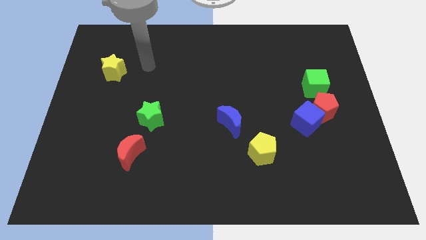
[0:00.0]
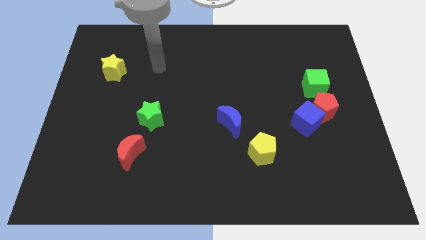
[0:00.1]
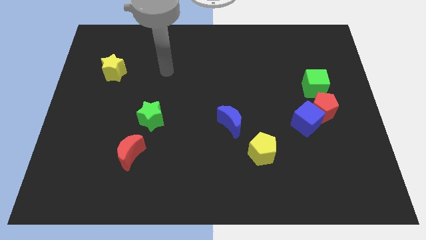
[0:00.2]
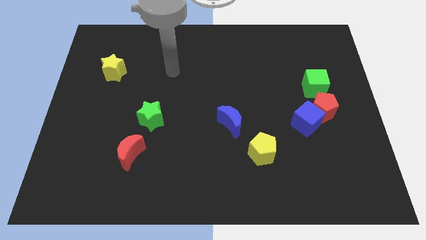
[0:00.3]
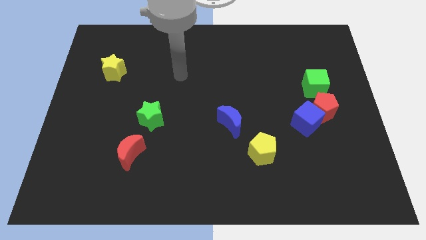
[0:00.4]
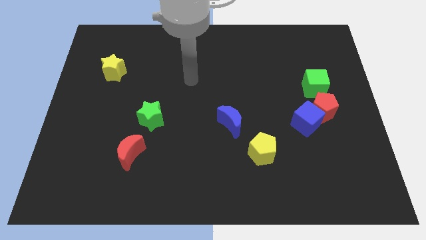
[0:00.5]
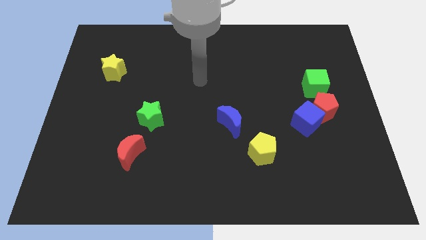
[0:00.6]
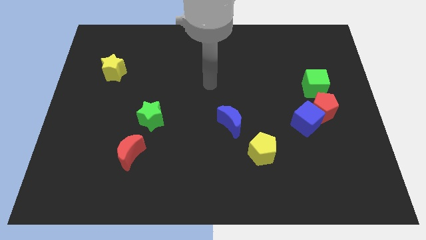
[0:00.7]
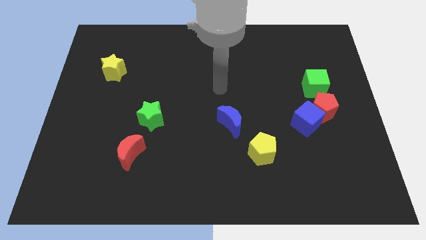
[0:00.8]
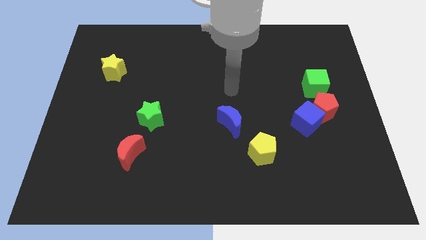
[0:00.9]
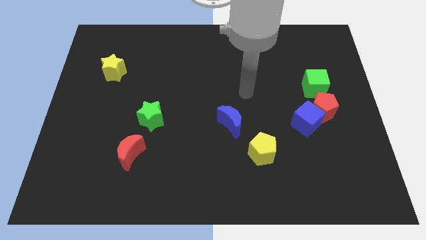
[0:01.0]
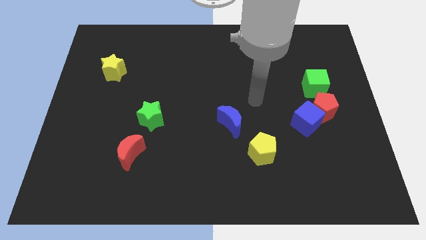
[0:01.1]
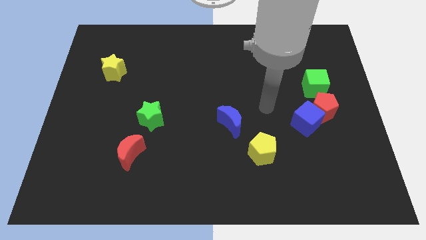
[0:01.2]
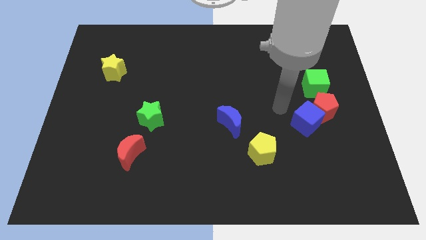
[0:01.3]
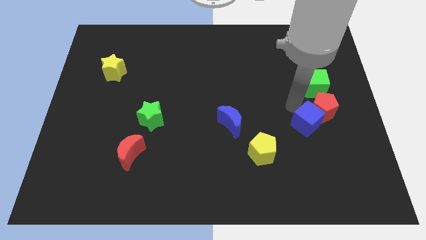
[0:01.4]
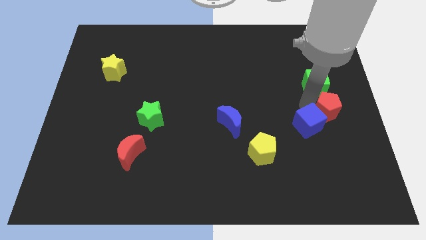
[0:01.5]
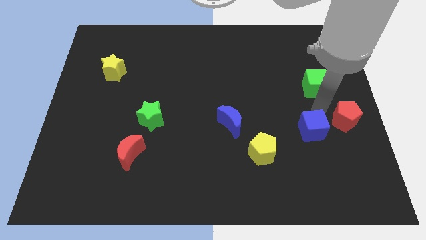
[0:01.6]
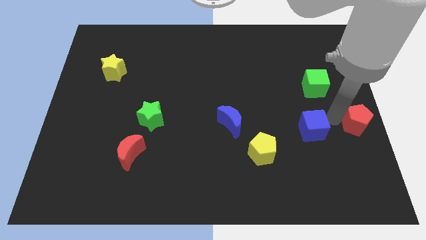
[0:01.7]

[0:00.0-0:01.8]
separate the blue cube from the red pentagon

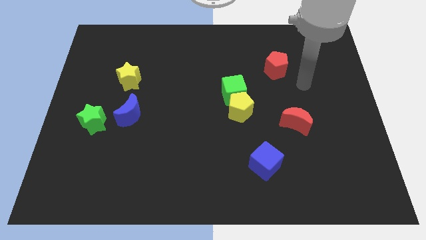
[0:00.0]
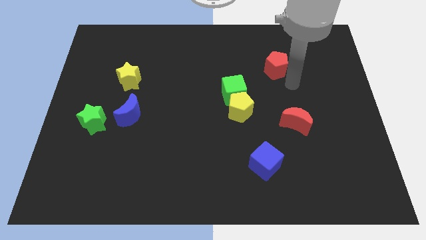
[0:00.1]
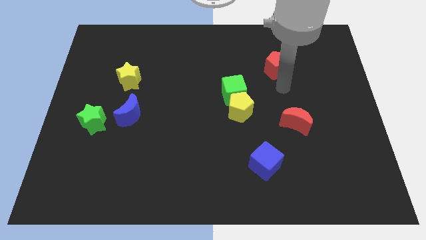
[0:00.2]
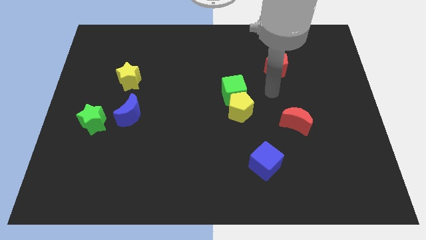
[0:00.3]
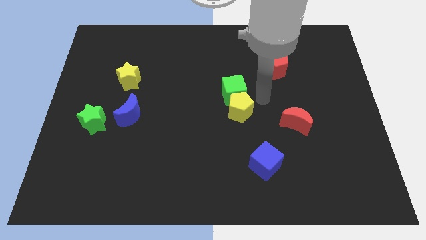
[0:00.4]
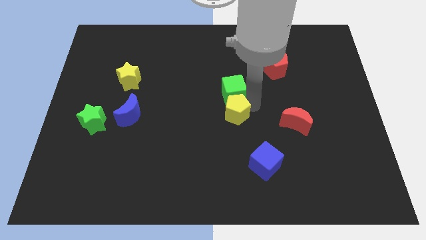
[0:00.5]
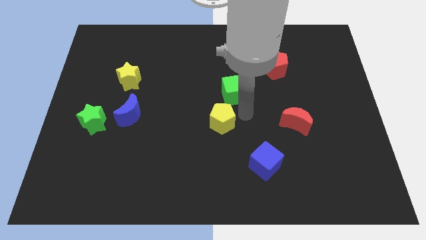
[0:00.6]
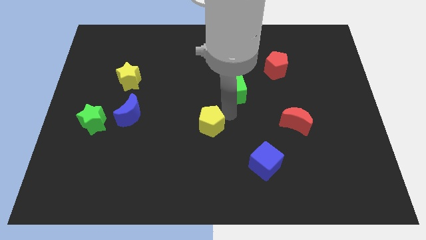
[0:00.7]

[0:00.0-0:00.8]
move the green cube away from the yellow pentagon

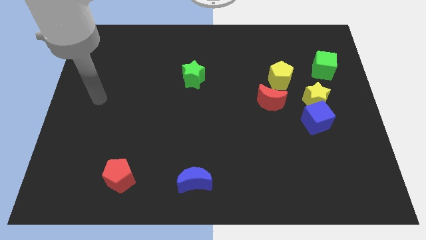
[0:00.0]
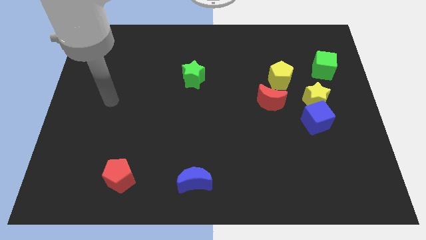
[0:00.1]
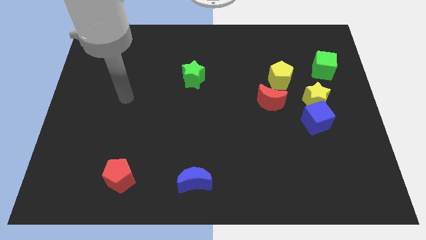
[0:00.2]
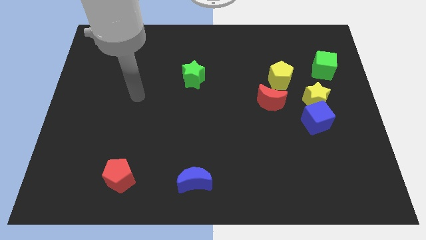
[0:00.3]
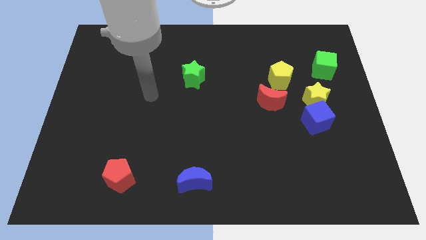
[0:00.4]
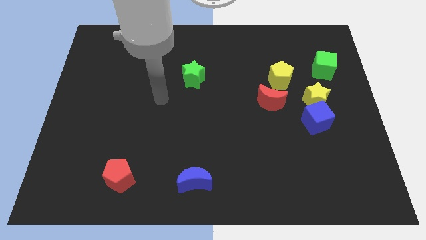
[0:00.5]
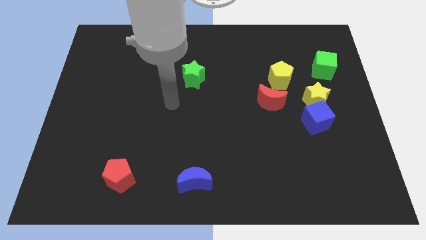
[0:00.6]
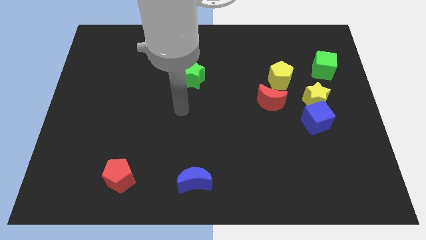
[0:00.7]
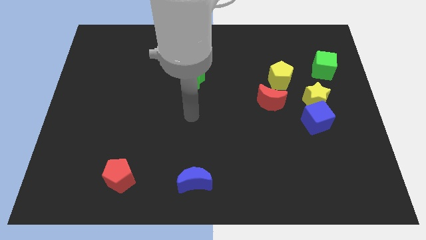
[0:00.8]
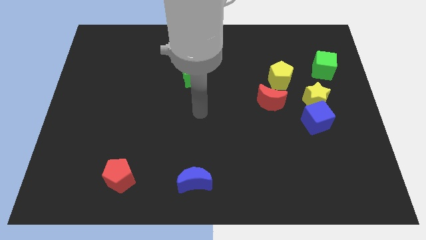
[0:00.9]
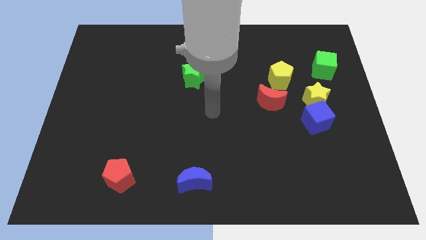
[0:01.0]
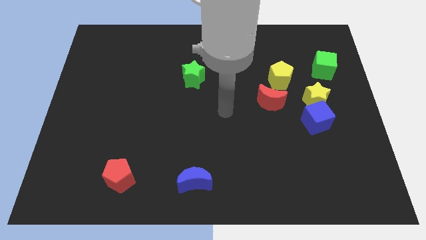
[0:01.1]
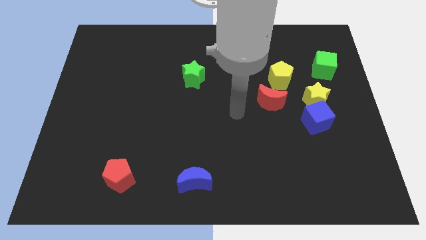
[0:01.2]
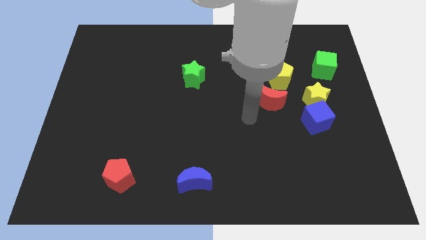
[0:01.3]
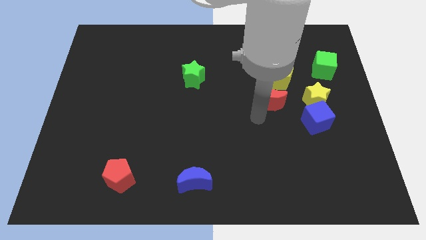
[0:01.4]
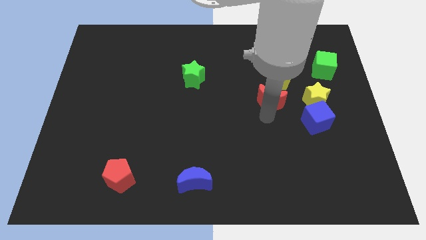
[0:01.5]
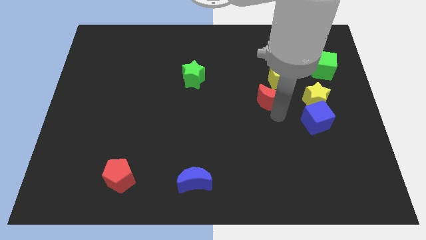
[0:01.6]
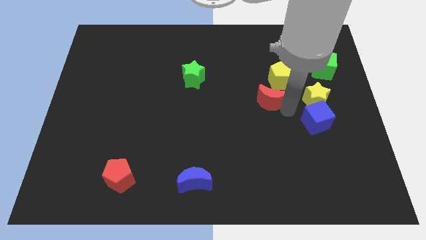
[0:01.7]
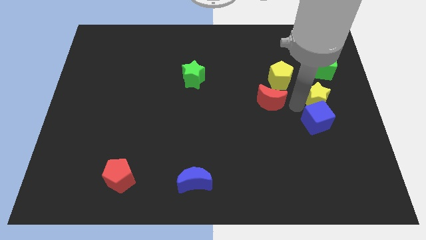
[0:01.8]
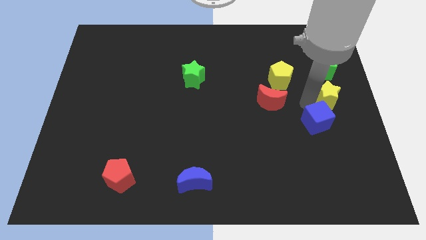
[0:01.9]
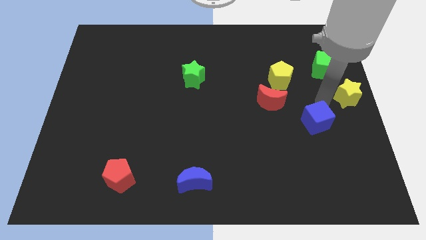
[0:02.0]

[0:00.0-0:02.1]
pull the blue cube apart from the yellow star

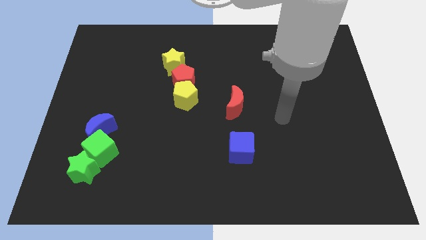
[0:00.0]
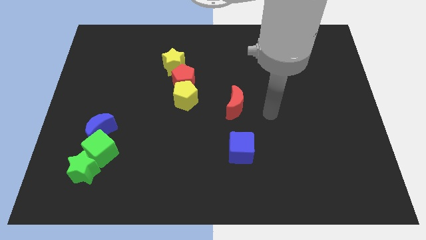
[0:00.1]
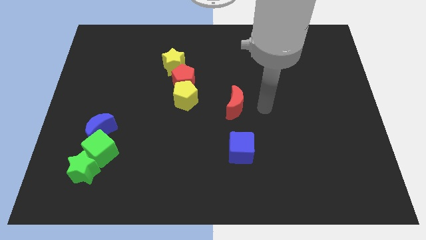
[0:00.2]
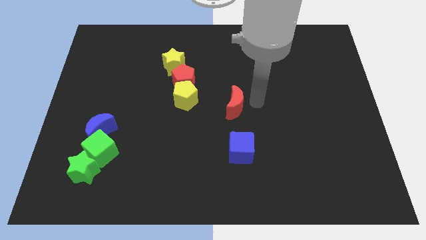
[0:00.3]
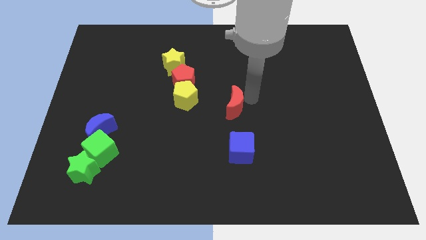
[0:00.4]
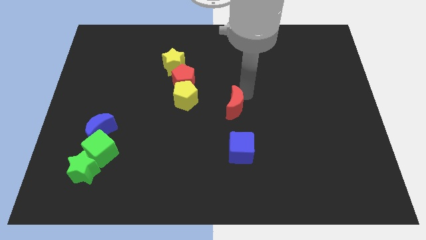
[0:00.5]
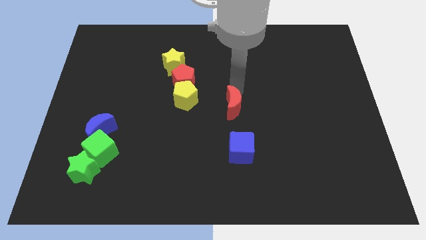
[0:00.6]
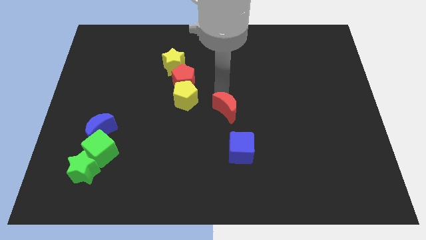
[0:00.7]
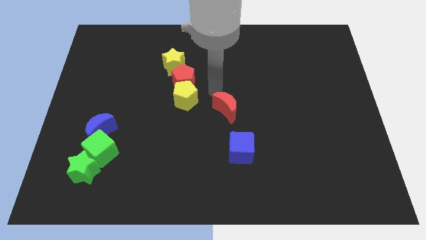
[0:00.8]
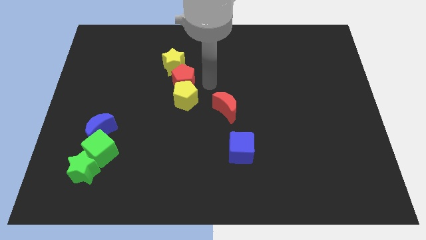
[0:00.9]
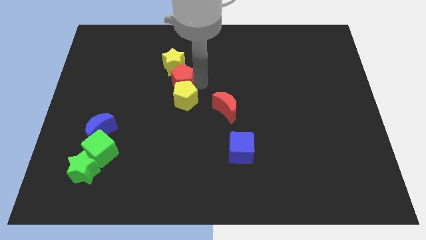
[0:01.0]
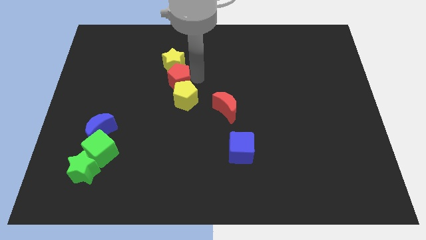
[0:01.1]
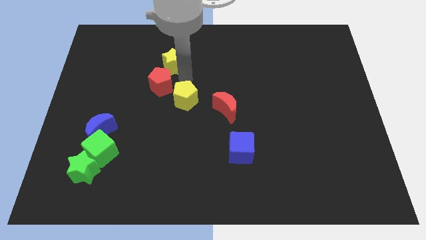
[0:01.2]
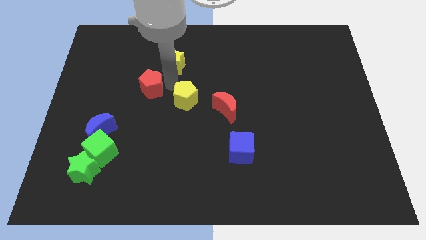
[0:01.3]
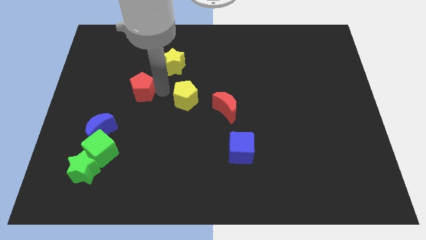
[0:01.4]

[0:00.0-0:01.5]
pull the yellow pentagon apart from the red pentagon

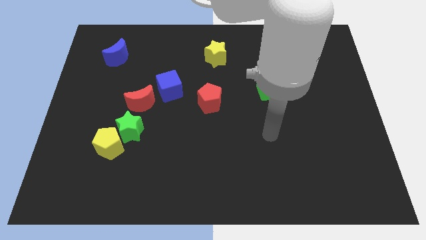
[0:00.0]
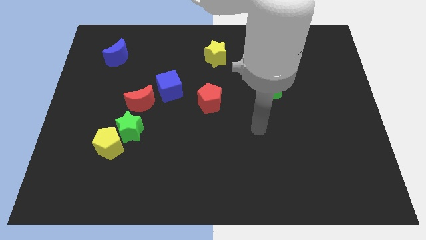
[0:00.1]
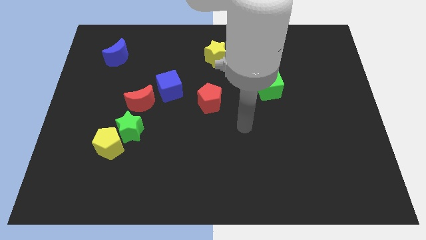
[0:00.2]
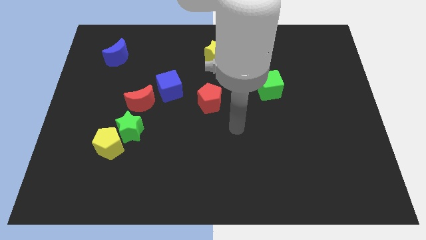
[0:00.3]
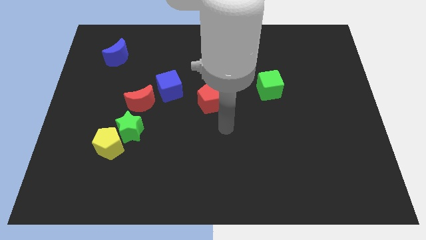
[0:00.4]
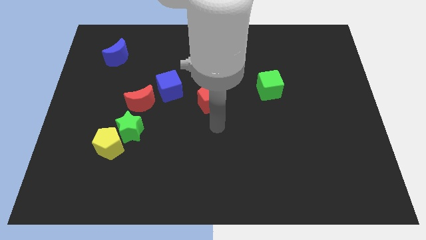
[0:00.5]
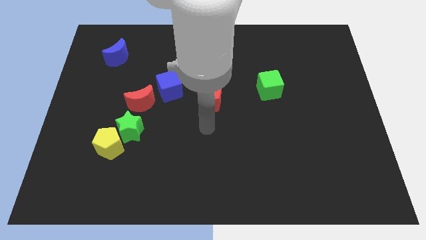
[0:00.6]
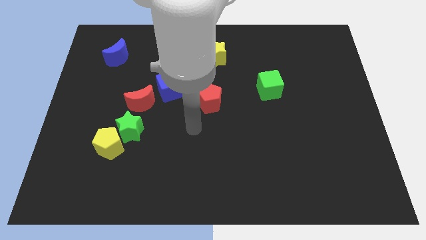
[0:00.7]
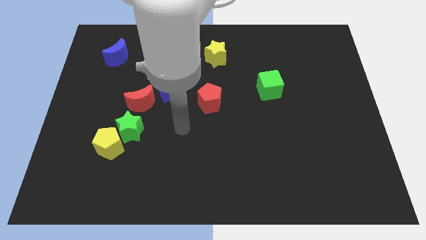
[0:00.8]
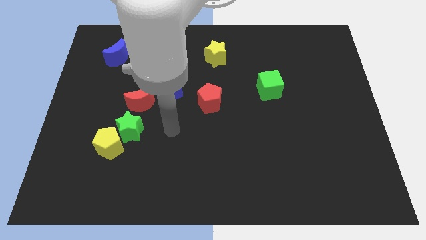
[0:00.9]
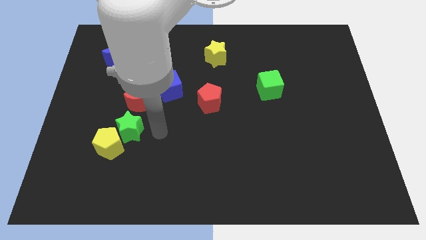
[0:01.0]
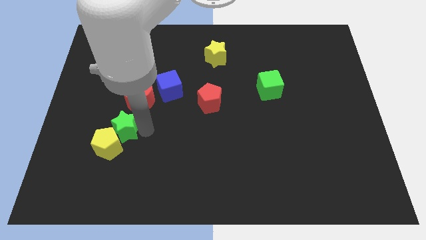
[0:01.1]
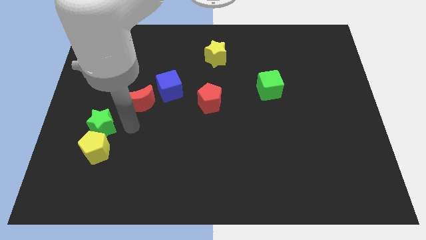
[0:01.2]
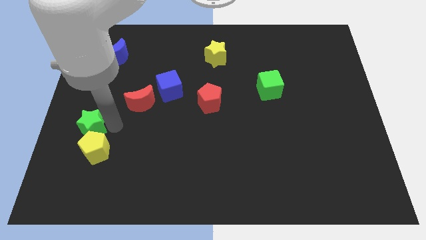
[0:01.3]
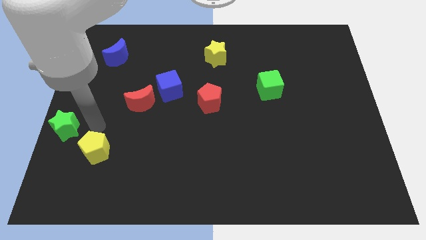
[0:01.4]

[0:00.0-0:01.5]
pull the yellow pentagon apart from the green star

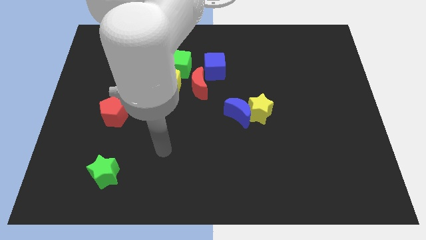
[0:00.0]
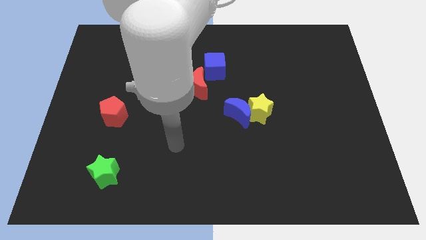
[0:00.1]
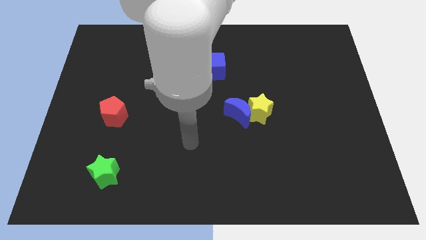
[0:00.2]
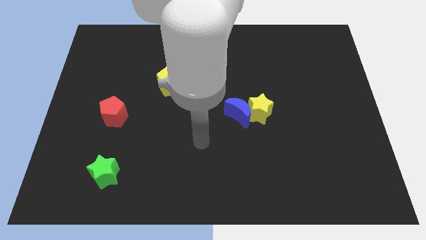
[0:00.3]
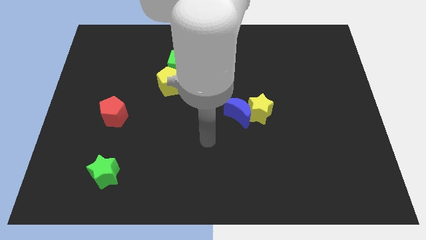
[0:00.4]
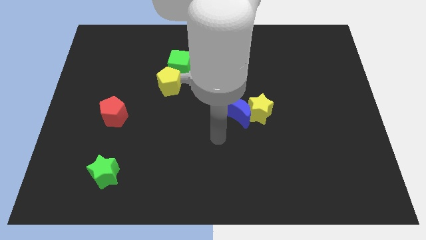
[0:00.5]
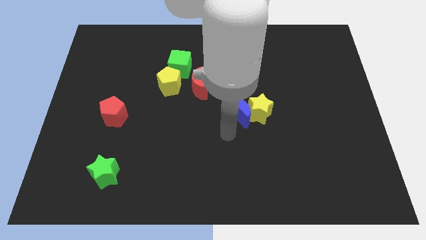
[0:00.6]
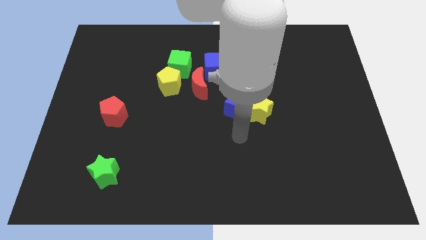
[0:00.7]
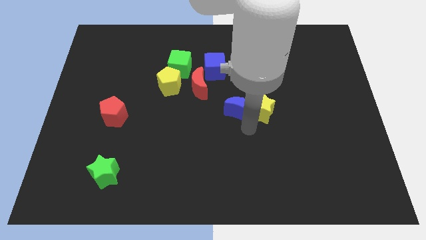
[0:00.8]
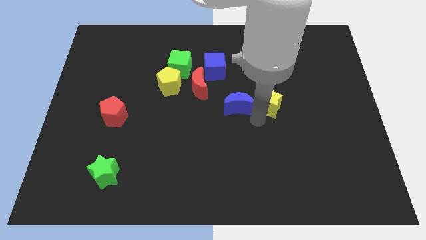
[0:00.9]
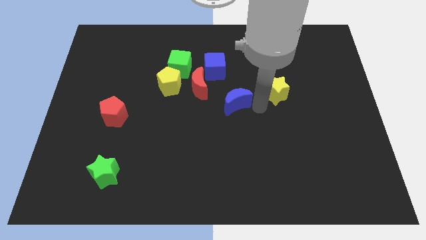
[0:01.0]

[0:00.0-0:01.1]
separate the blue moon from the yellow star

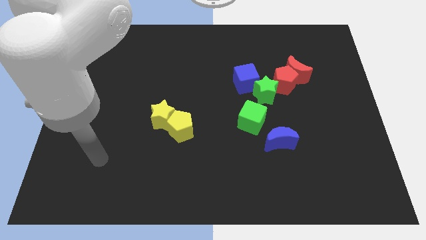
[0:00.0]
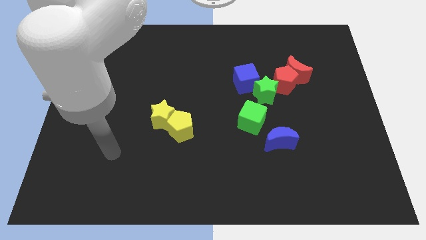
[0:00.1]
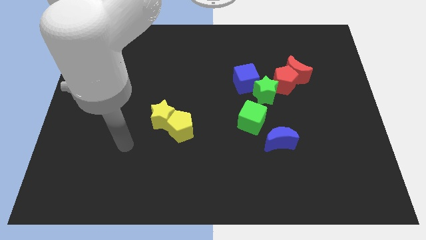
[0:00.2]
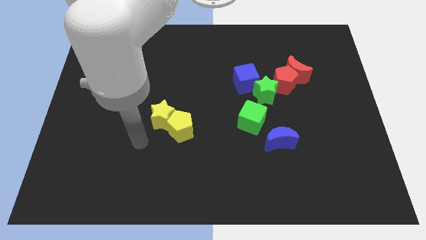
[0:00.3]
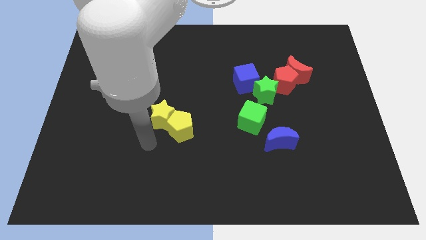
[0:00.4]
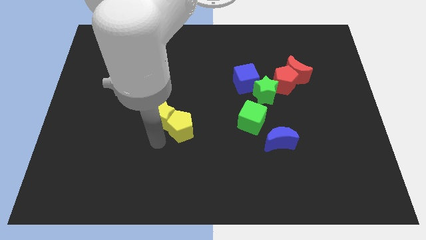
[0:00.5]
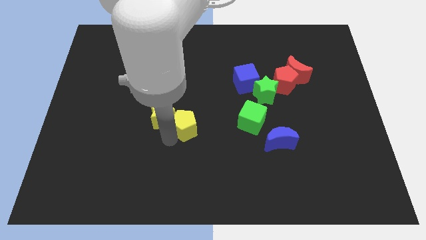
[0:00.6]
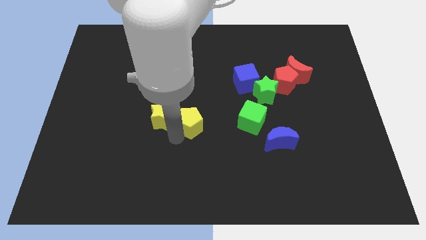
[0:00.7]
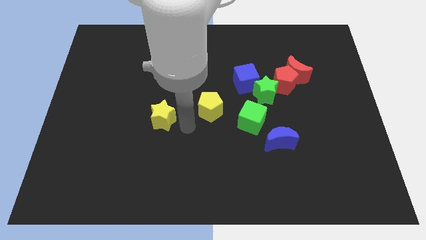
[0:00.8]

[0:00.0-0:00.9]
separate the yellow star from the yellow pentagon
